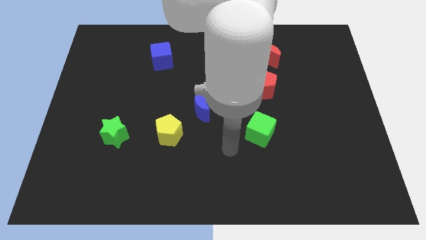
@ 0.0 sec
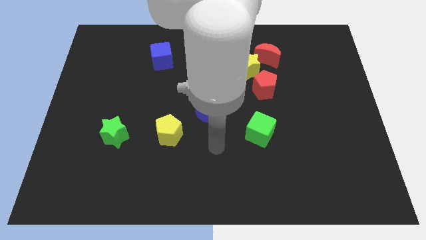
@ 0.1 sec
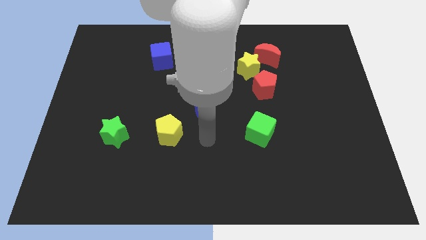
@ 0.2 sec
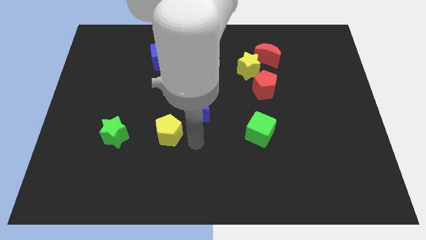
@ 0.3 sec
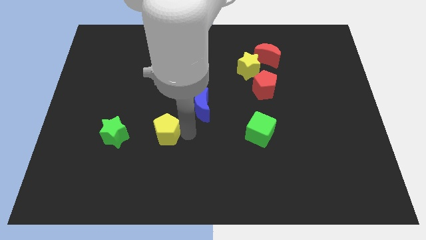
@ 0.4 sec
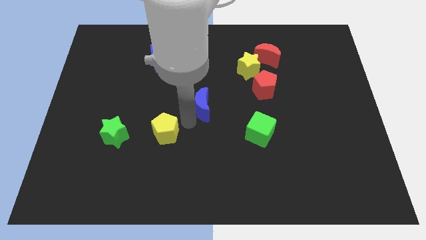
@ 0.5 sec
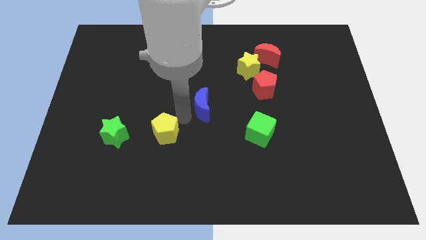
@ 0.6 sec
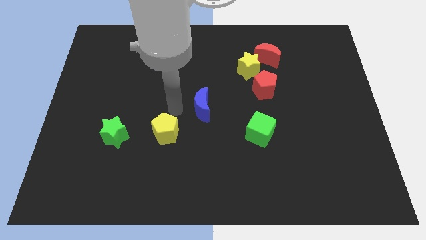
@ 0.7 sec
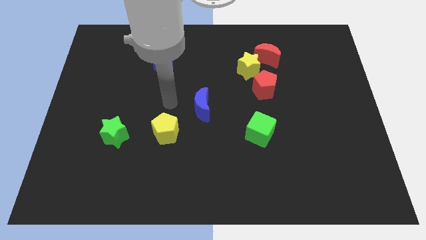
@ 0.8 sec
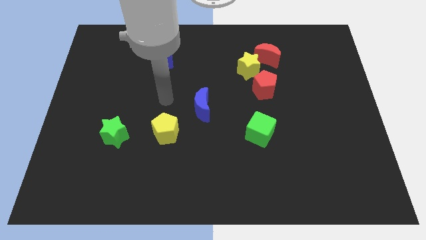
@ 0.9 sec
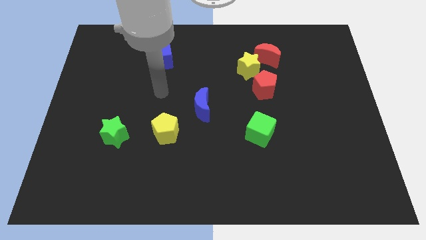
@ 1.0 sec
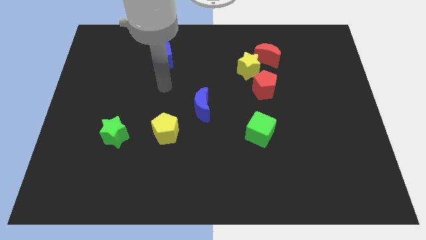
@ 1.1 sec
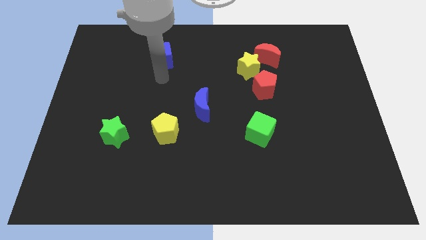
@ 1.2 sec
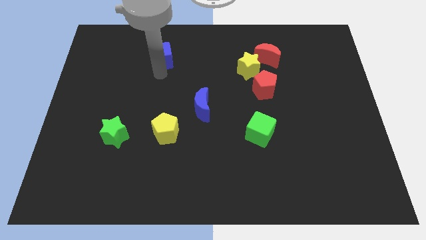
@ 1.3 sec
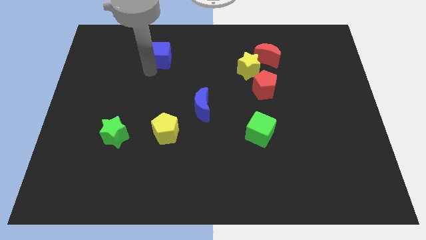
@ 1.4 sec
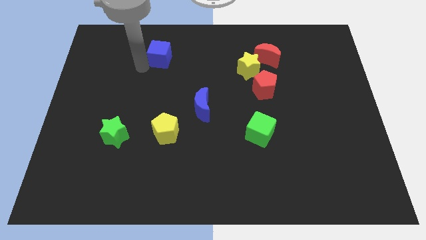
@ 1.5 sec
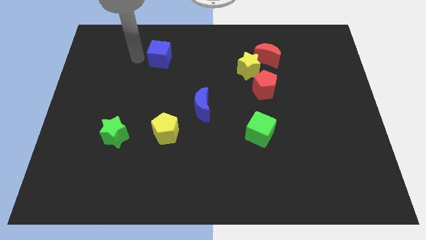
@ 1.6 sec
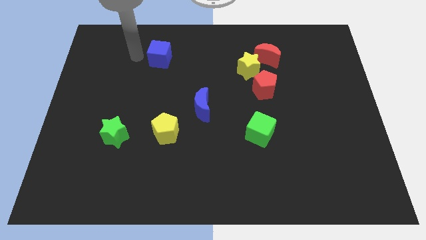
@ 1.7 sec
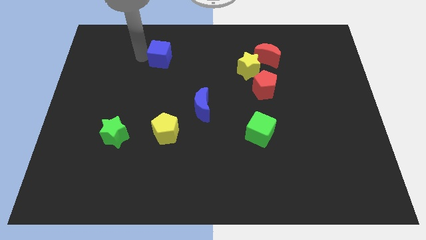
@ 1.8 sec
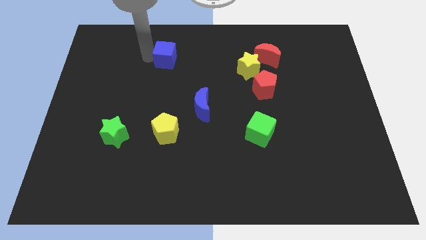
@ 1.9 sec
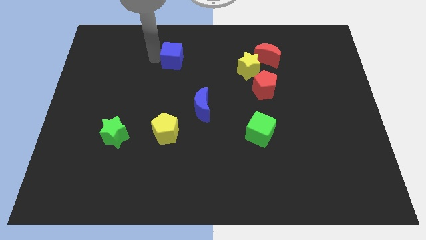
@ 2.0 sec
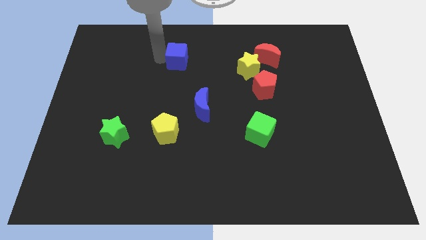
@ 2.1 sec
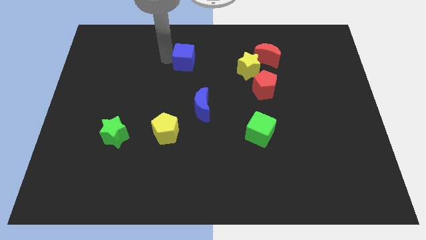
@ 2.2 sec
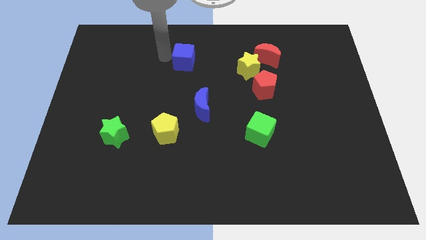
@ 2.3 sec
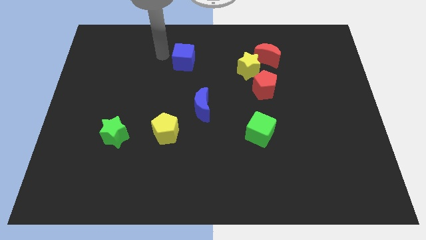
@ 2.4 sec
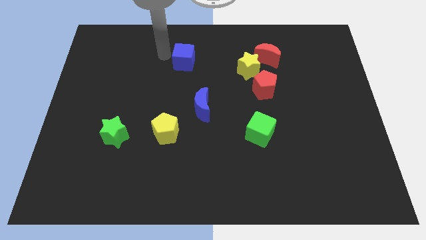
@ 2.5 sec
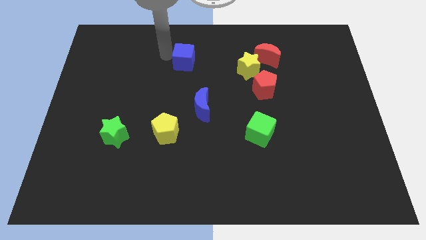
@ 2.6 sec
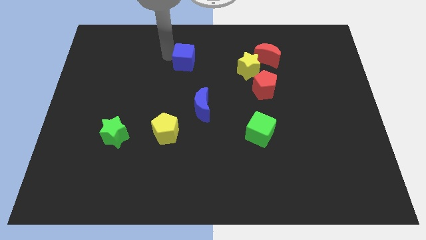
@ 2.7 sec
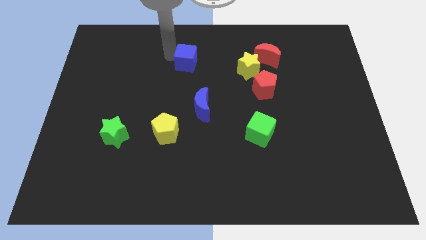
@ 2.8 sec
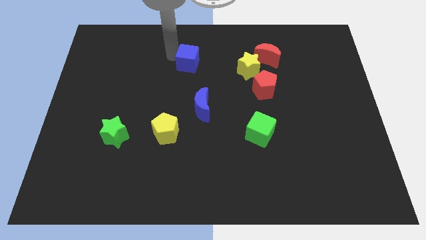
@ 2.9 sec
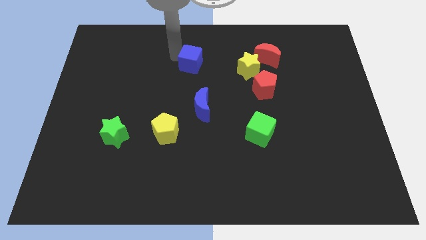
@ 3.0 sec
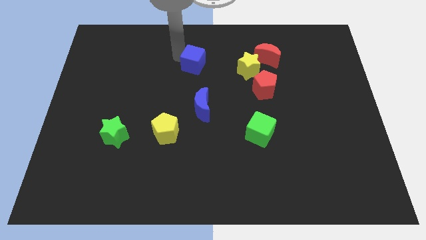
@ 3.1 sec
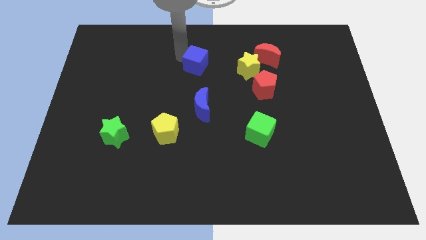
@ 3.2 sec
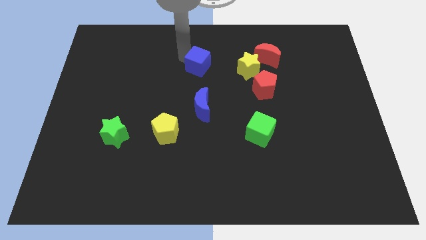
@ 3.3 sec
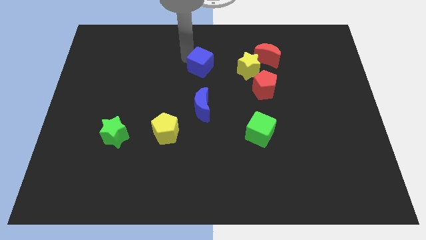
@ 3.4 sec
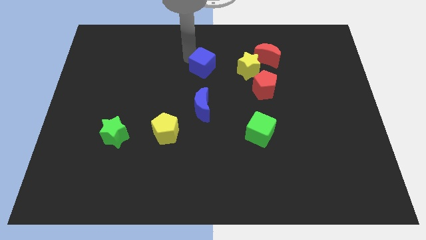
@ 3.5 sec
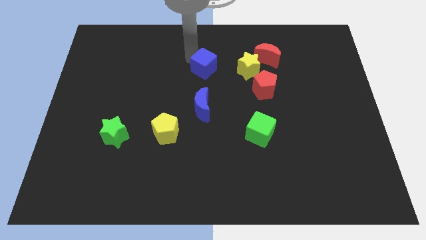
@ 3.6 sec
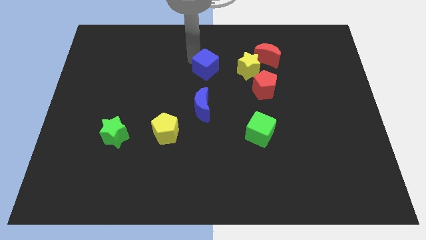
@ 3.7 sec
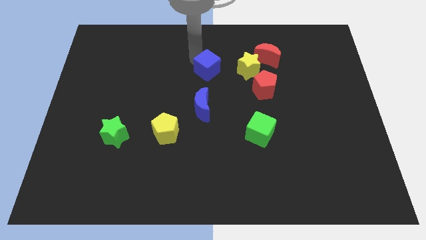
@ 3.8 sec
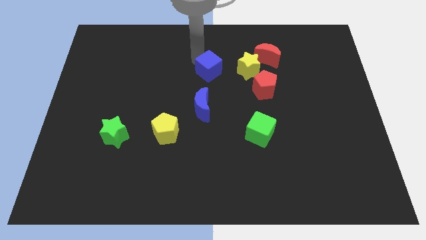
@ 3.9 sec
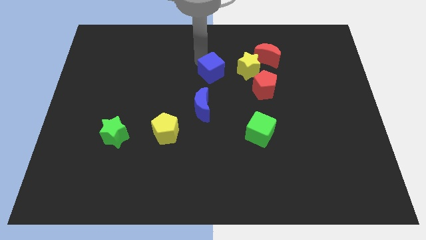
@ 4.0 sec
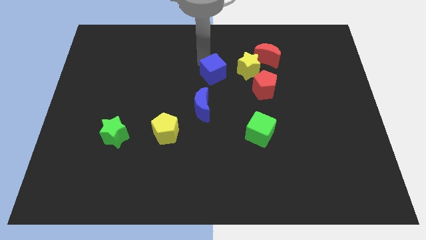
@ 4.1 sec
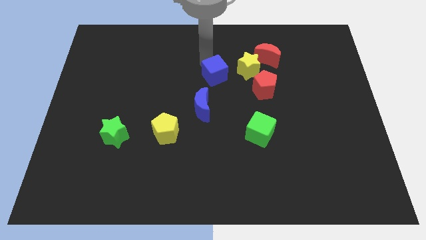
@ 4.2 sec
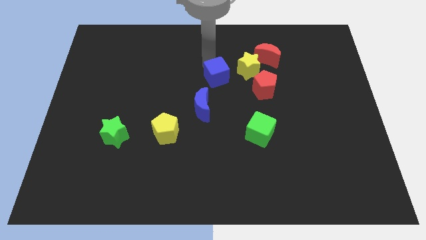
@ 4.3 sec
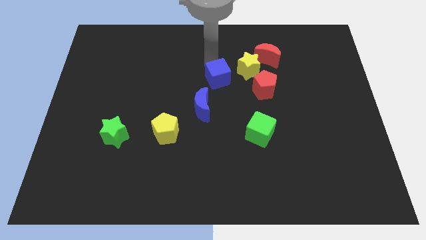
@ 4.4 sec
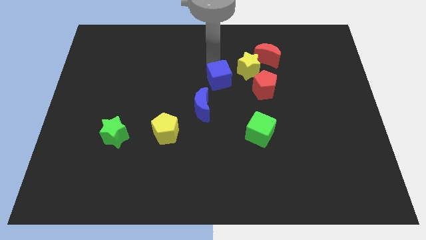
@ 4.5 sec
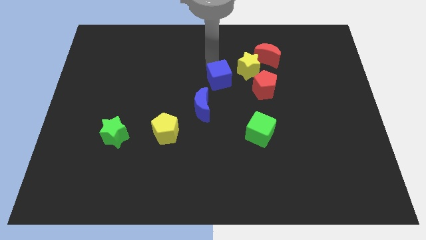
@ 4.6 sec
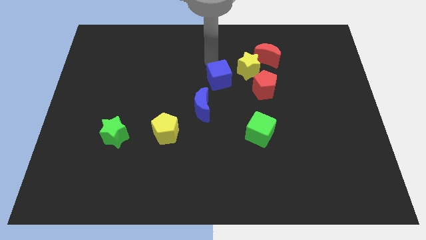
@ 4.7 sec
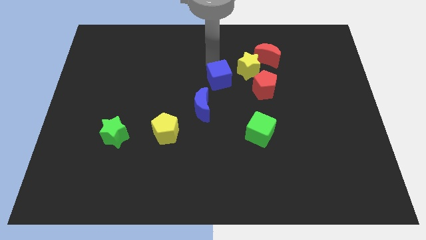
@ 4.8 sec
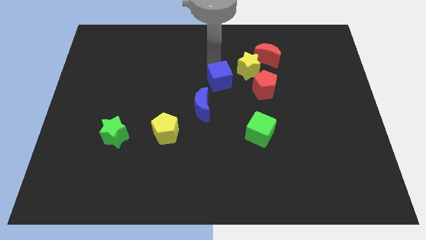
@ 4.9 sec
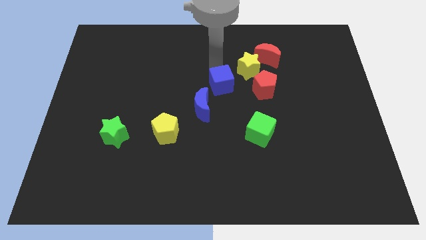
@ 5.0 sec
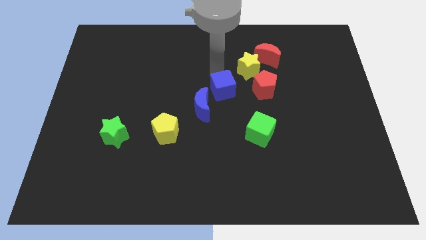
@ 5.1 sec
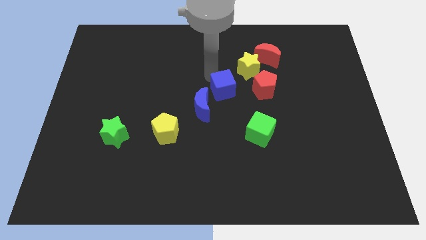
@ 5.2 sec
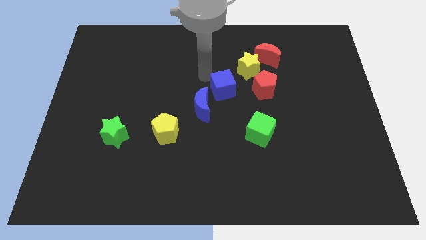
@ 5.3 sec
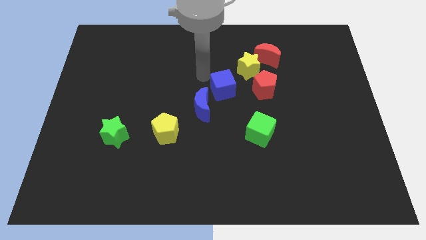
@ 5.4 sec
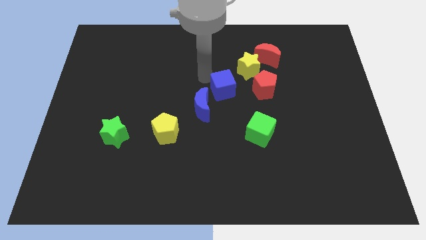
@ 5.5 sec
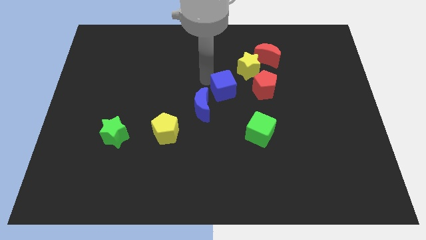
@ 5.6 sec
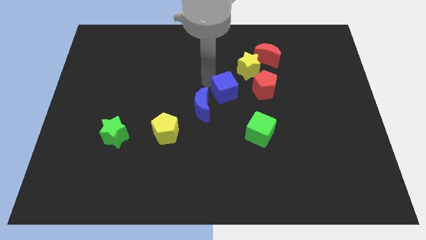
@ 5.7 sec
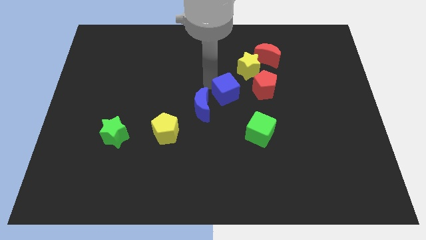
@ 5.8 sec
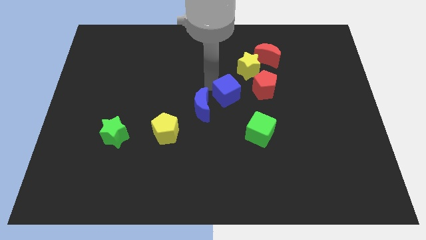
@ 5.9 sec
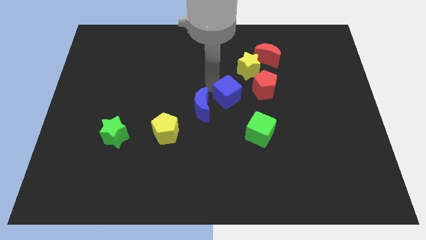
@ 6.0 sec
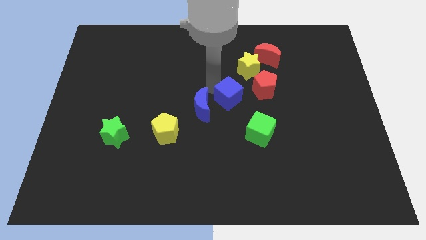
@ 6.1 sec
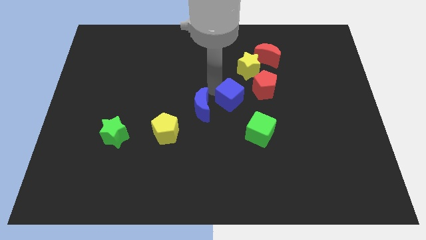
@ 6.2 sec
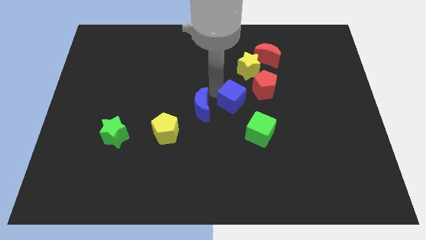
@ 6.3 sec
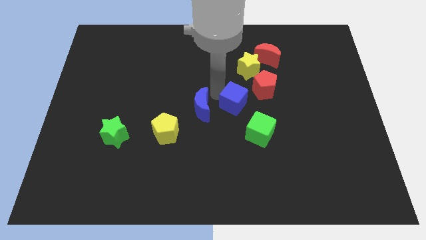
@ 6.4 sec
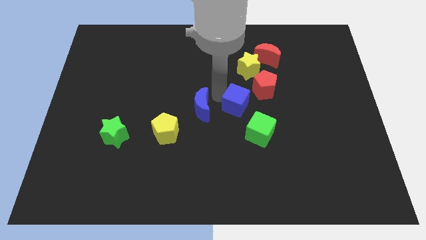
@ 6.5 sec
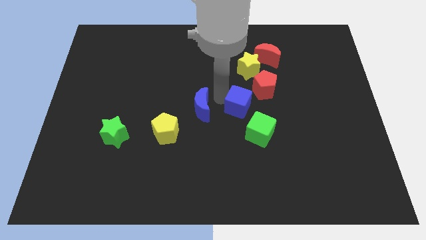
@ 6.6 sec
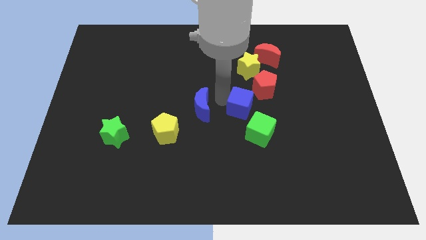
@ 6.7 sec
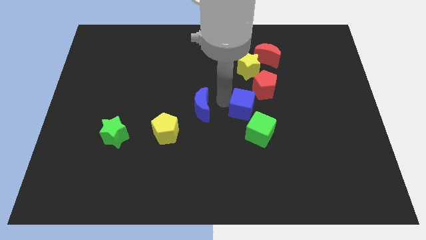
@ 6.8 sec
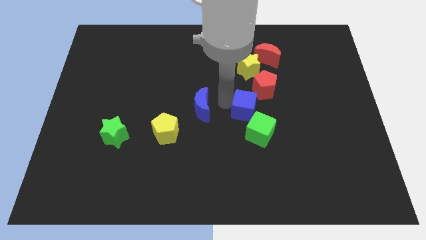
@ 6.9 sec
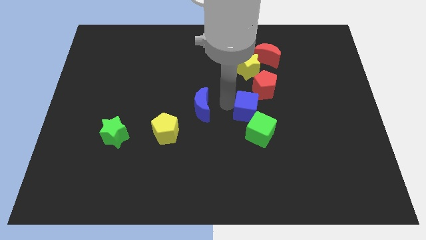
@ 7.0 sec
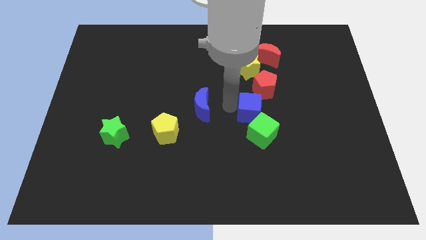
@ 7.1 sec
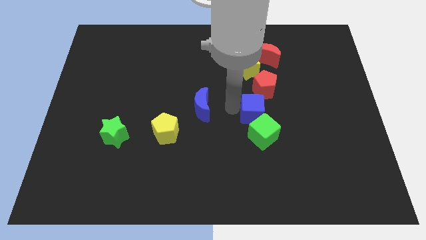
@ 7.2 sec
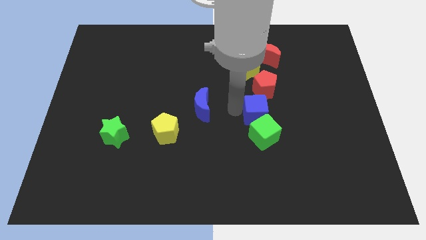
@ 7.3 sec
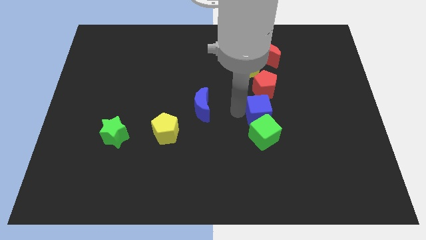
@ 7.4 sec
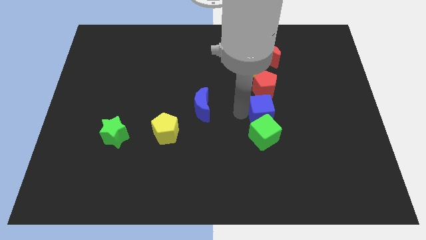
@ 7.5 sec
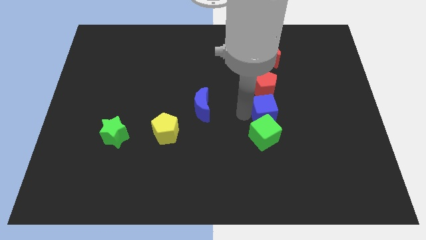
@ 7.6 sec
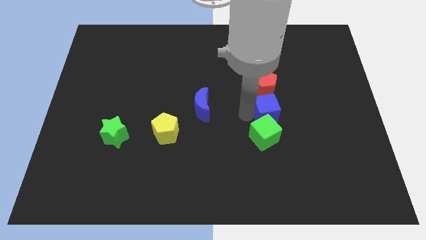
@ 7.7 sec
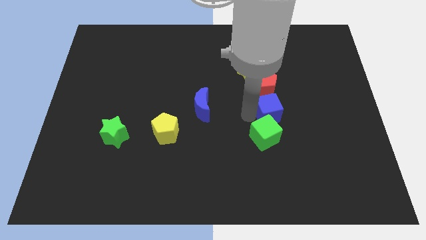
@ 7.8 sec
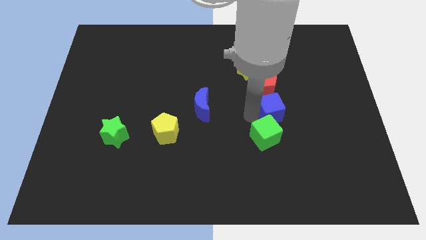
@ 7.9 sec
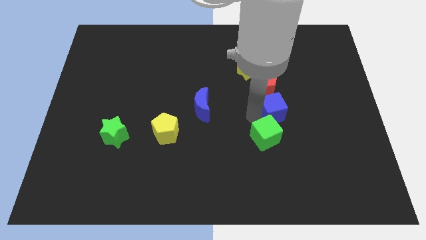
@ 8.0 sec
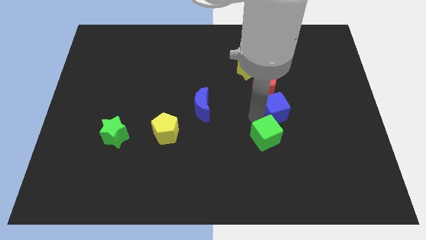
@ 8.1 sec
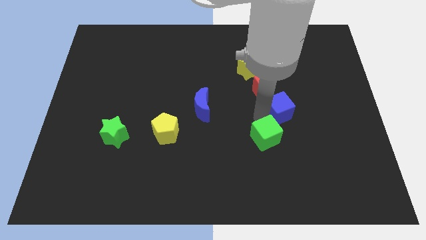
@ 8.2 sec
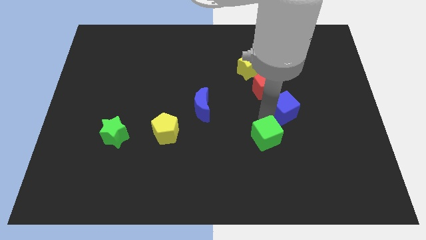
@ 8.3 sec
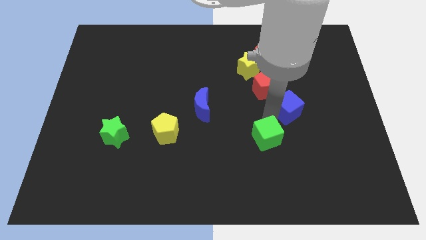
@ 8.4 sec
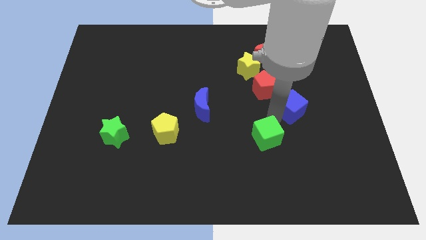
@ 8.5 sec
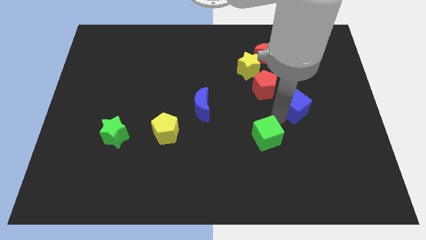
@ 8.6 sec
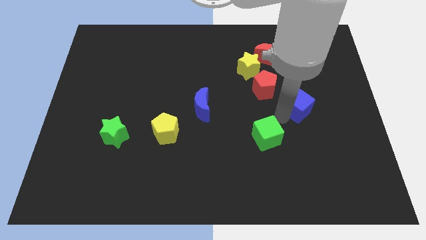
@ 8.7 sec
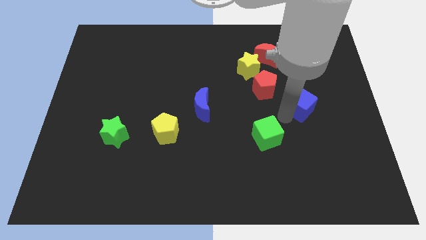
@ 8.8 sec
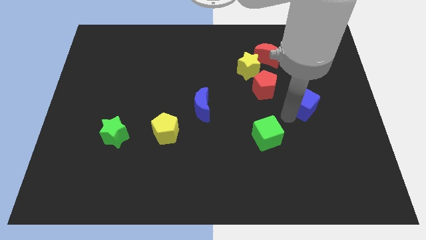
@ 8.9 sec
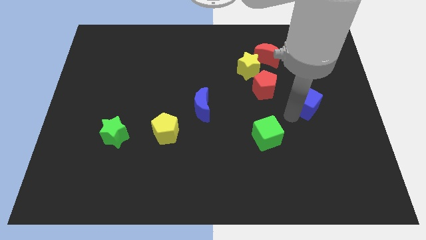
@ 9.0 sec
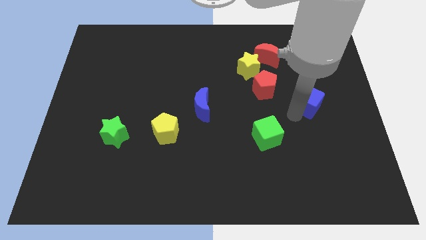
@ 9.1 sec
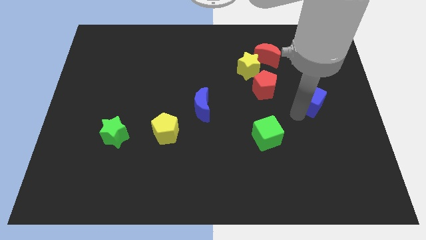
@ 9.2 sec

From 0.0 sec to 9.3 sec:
move the blue cube to the right side of the red pentagon
